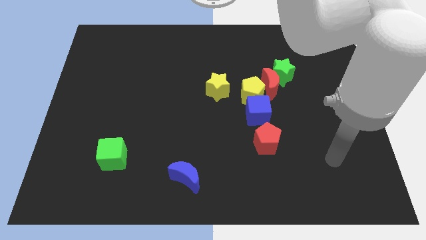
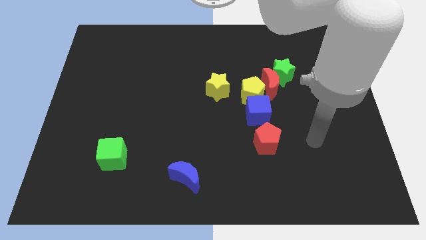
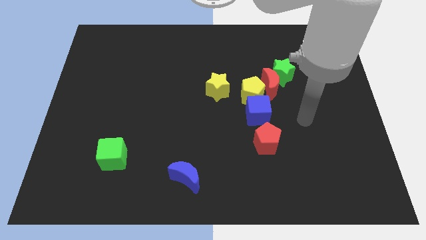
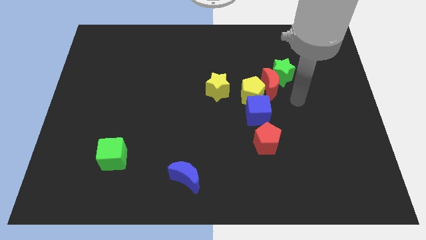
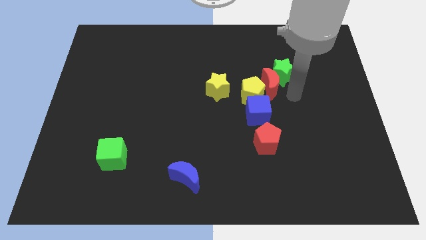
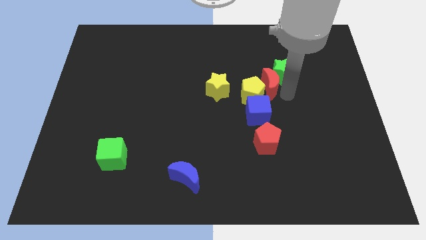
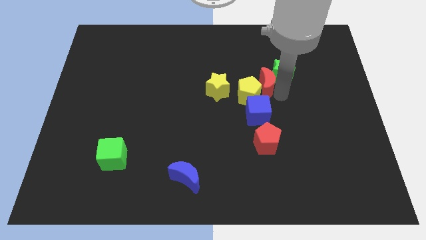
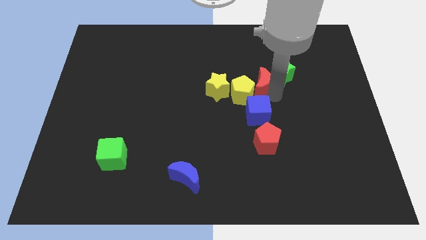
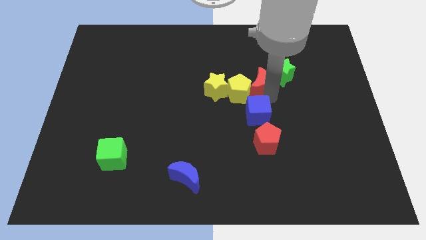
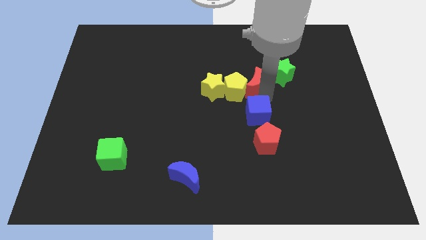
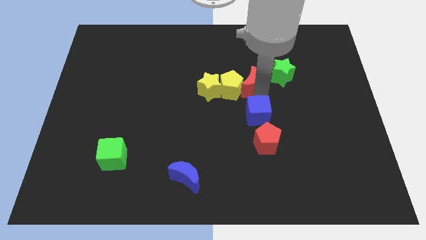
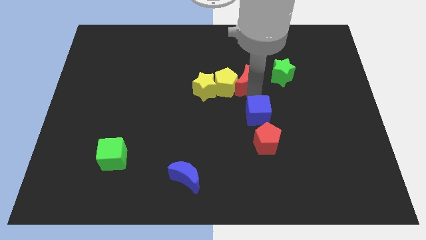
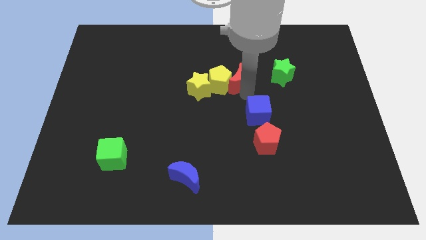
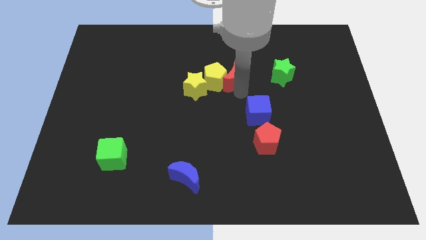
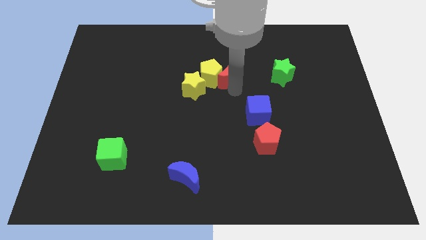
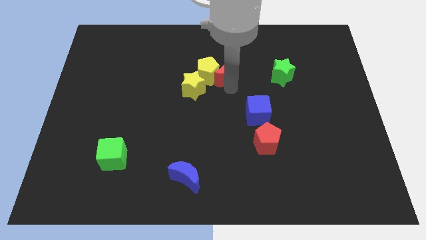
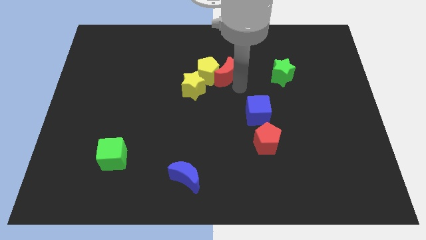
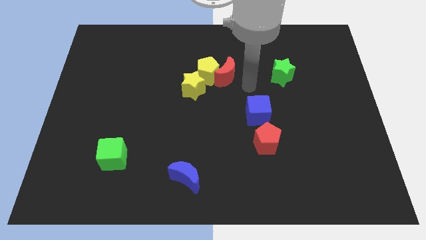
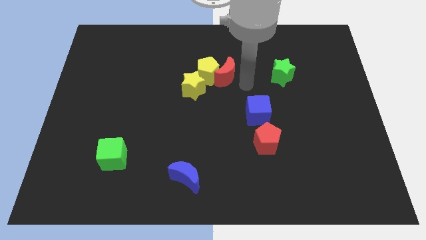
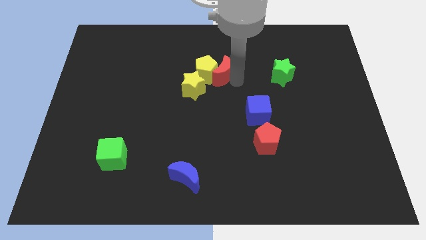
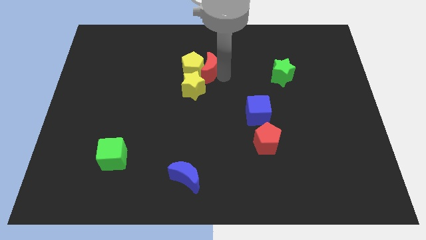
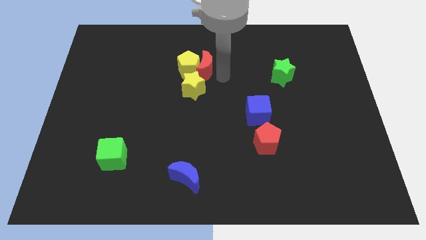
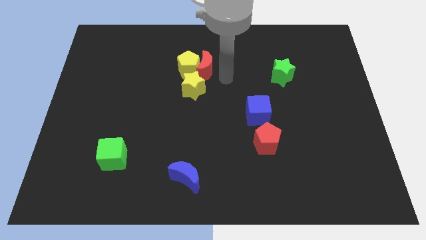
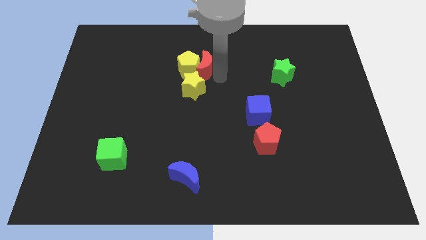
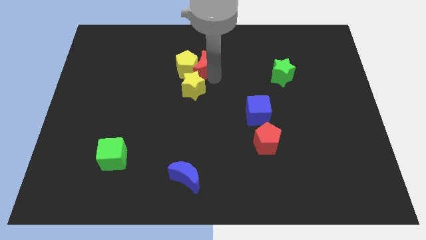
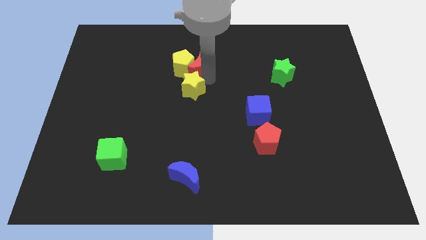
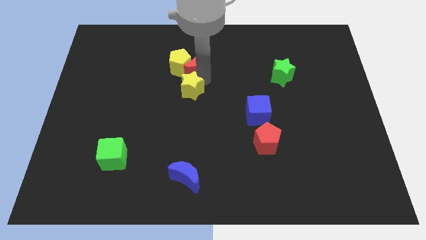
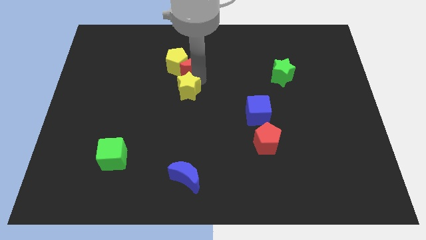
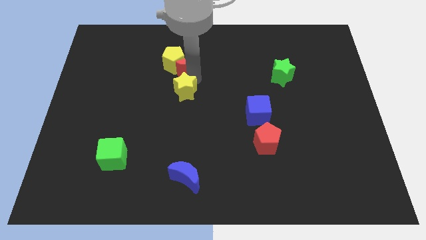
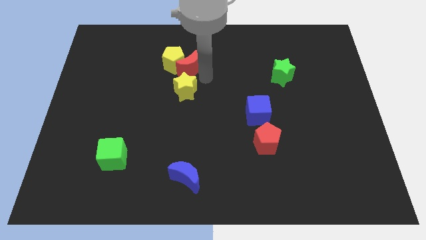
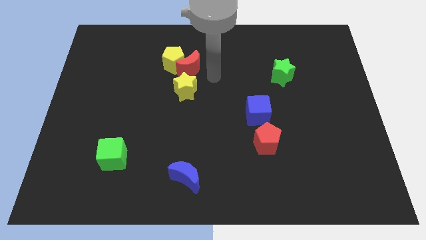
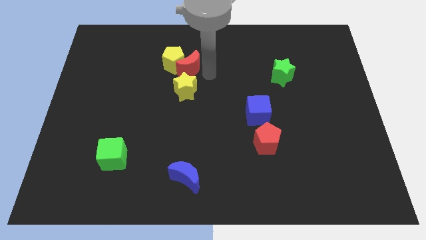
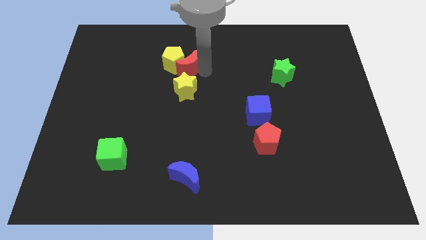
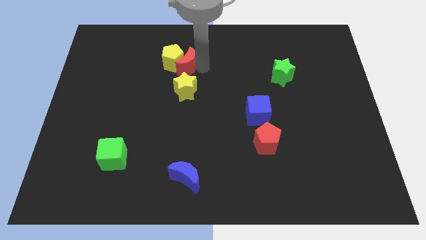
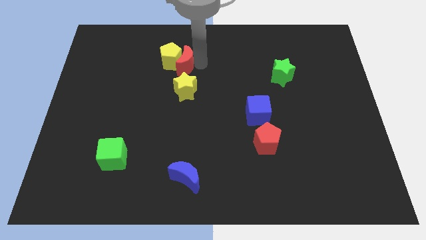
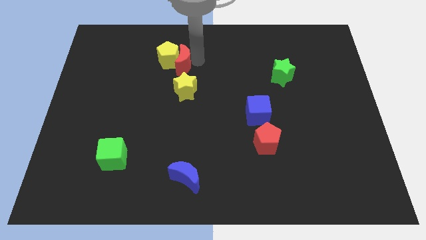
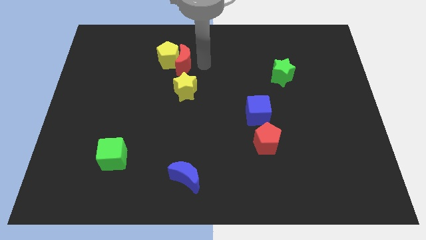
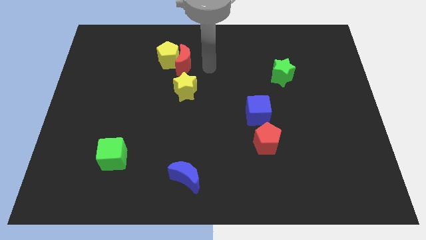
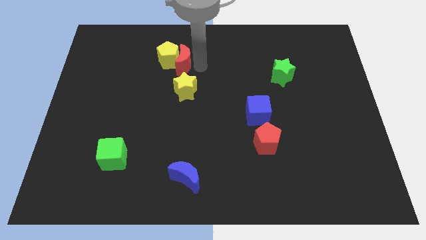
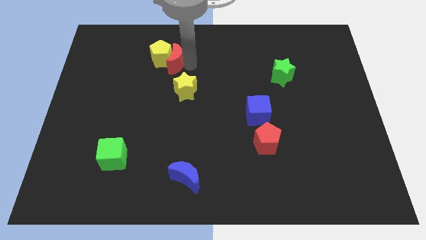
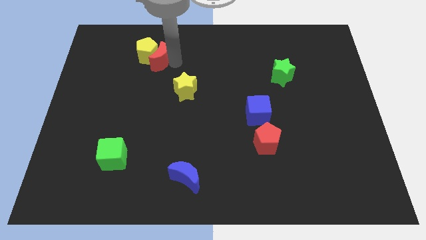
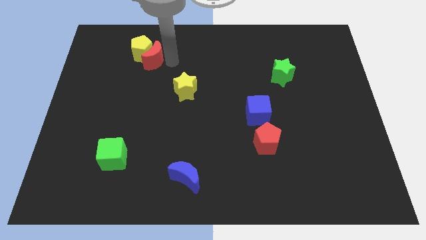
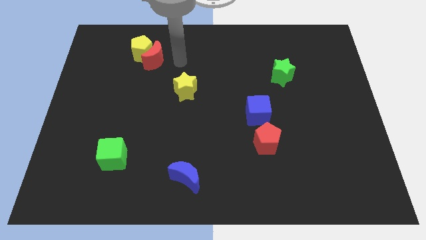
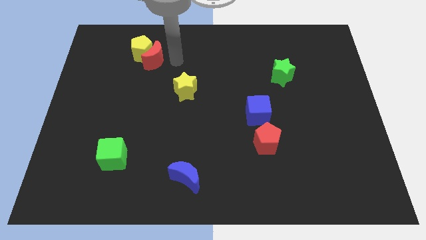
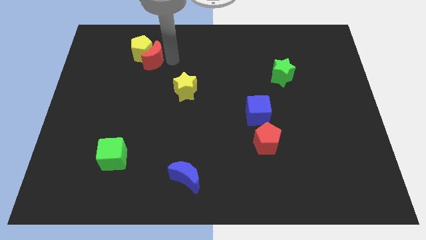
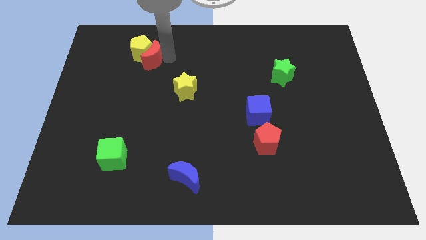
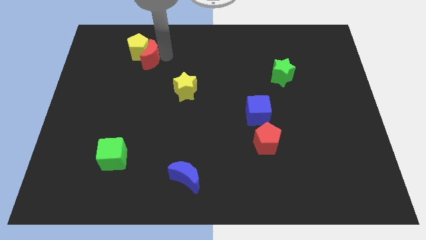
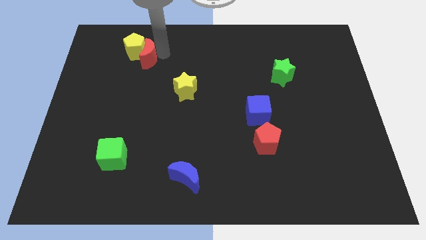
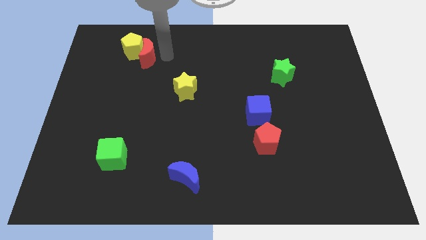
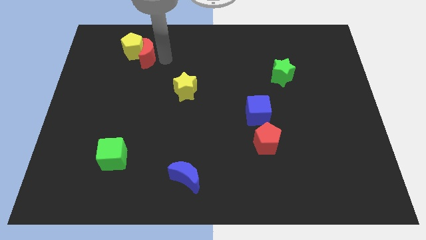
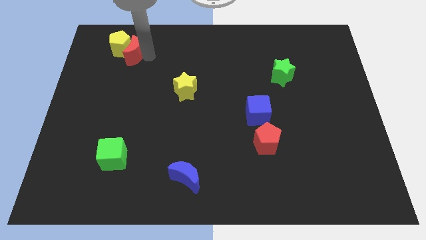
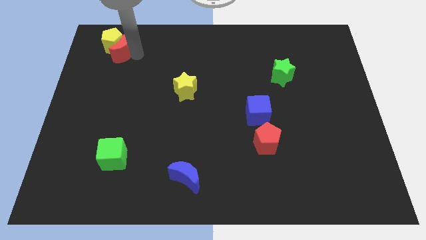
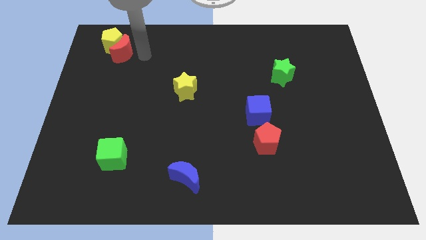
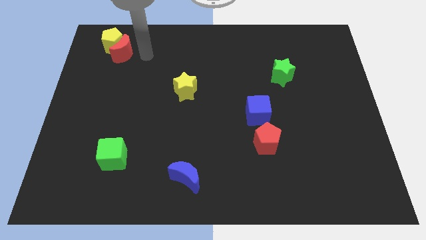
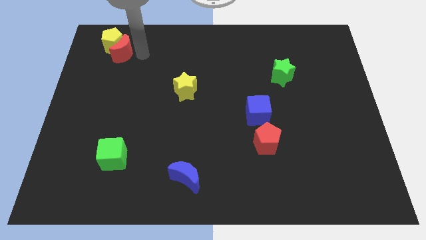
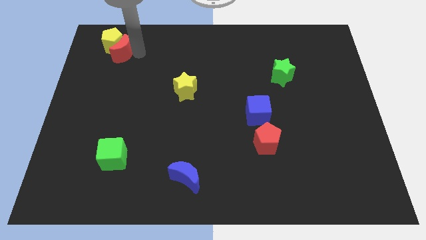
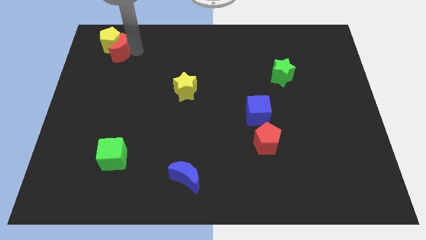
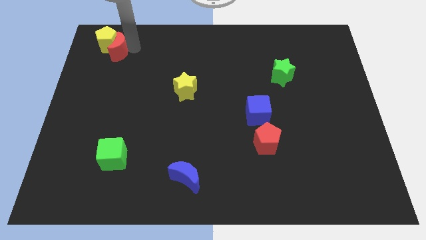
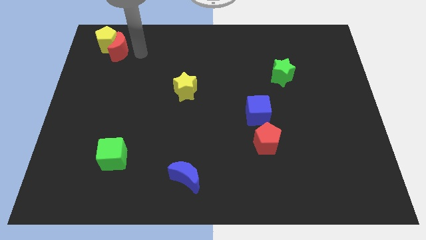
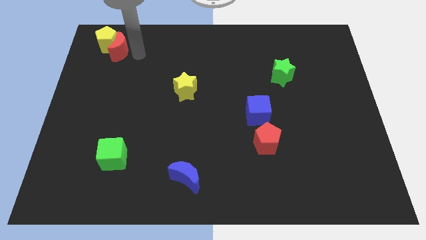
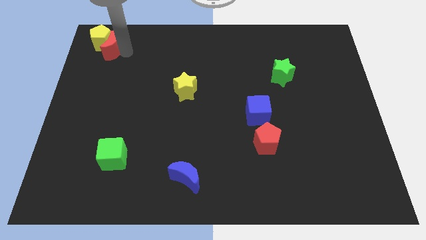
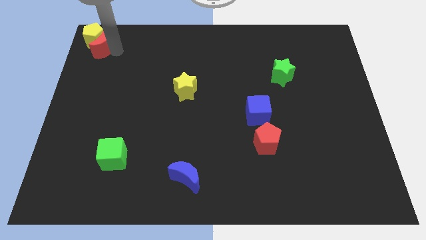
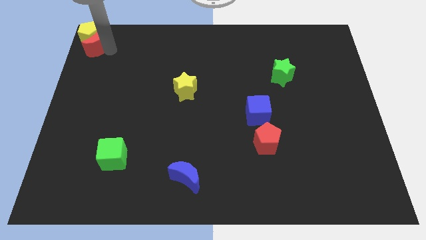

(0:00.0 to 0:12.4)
move the red moon to the top left of the board

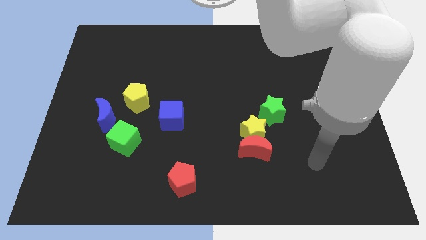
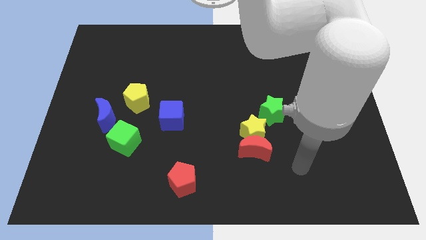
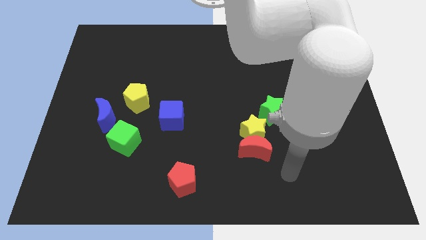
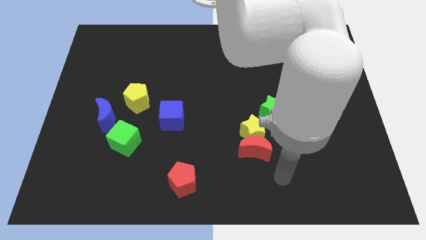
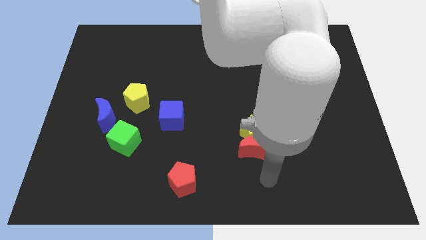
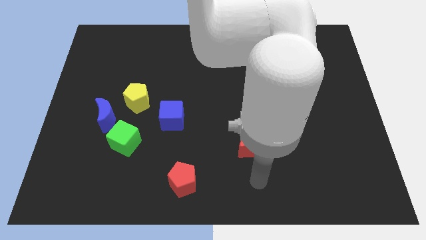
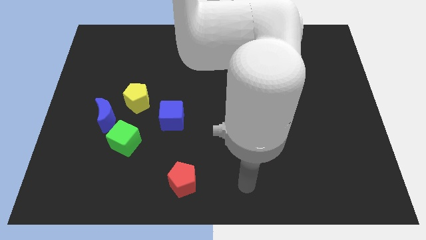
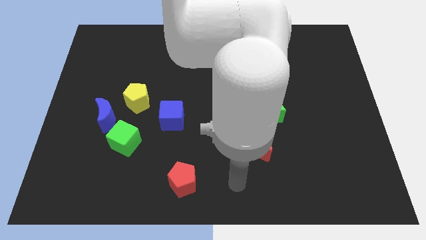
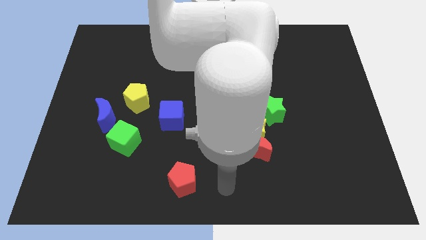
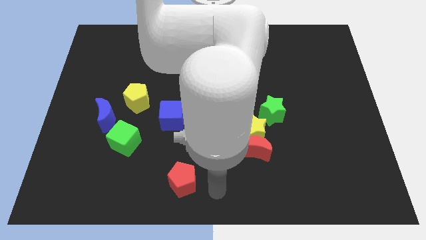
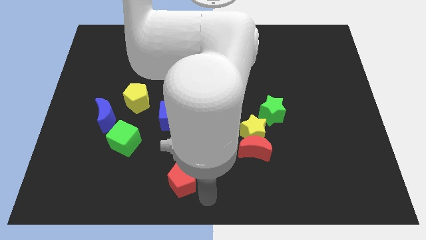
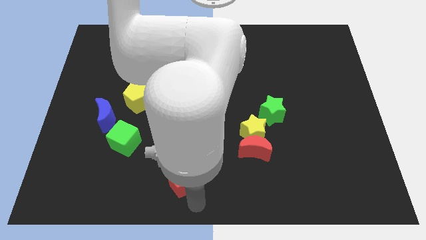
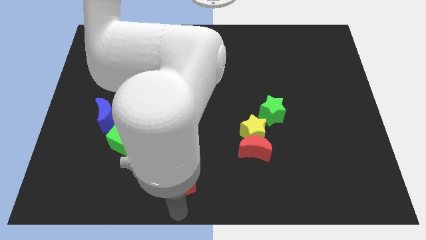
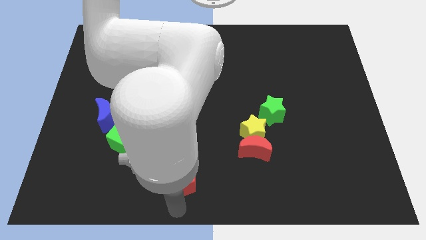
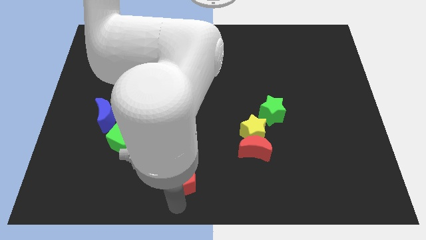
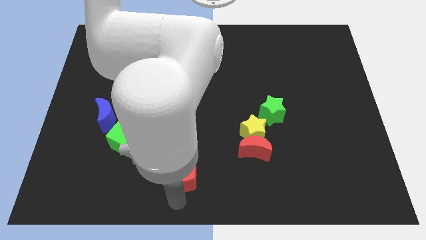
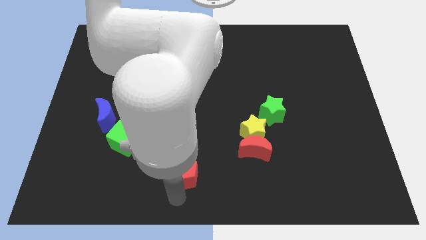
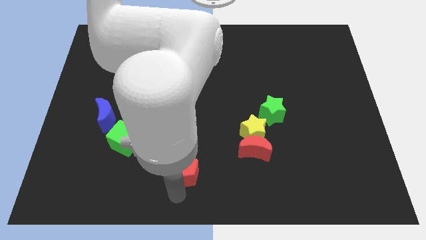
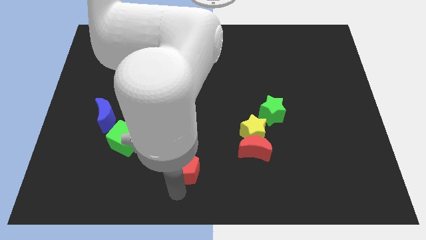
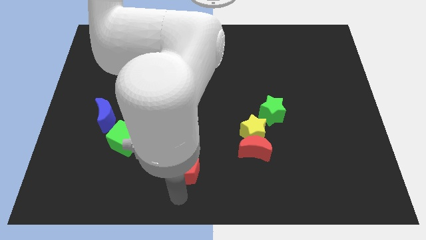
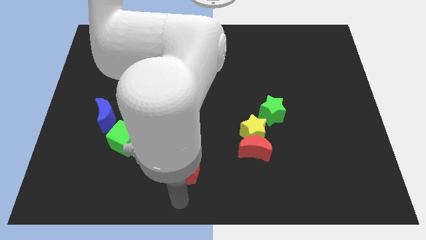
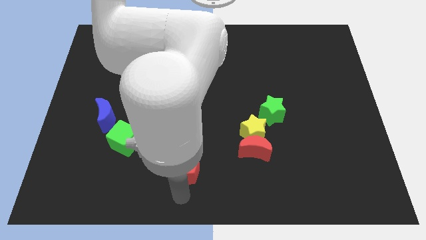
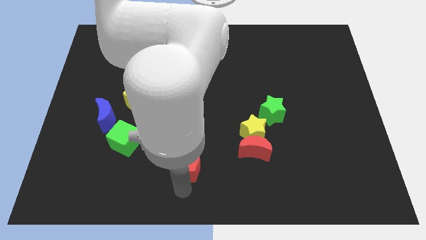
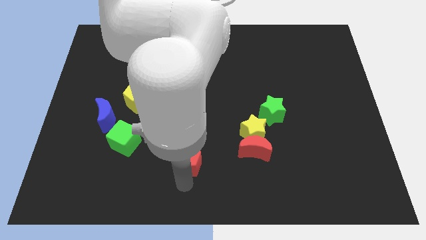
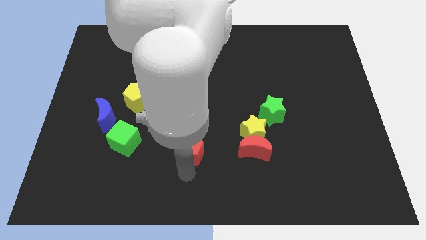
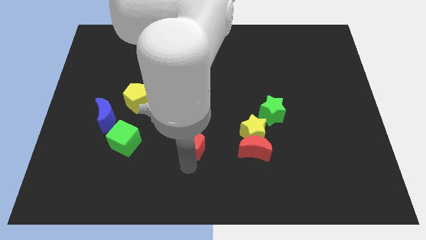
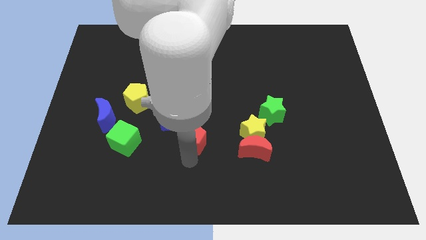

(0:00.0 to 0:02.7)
push the red pentagon to the middle
